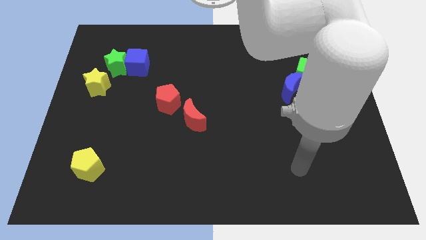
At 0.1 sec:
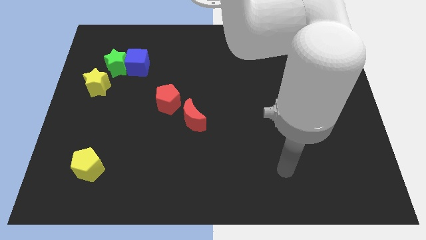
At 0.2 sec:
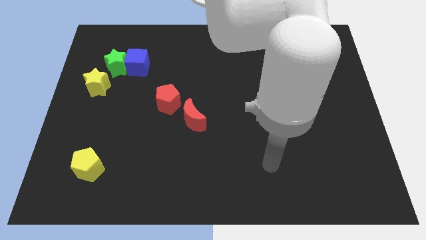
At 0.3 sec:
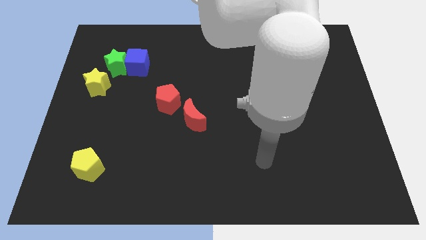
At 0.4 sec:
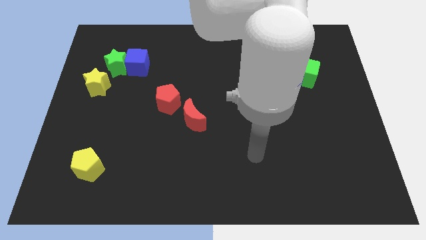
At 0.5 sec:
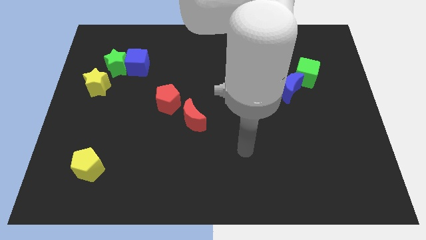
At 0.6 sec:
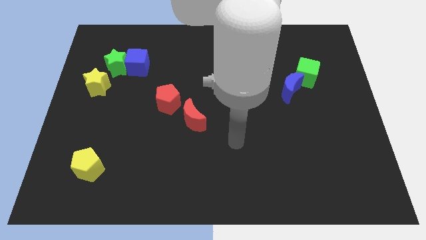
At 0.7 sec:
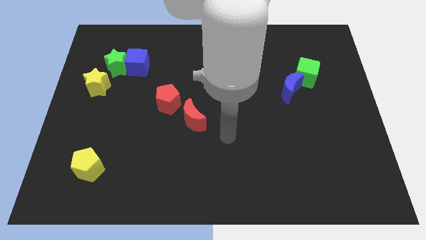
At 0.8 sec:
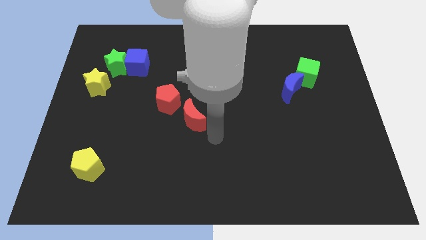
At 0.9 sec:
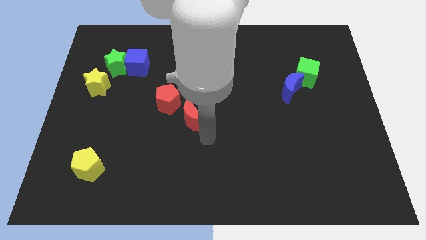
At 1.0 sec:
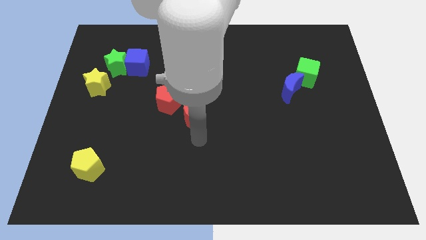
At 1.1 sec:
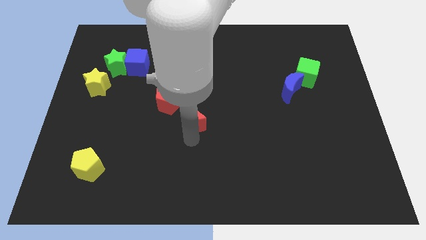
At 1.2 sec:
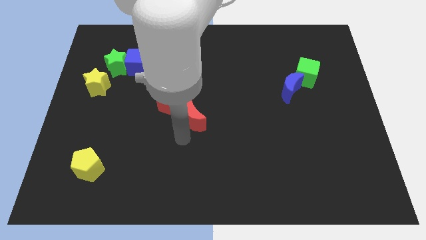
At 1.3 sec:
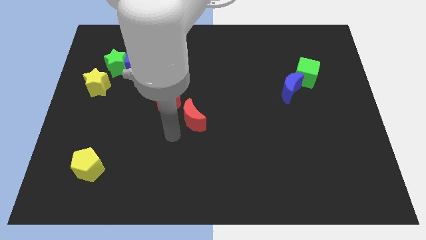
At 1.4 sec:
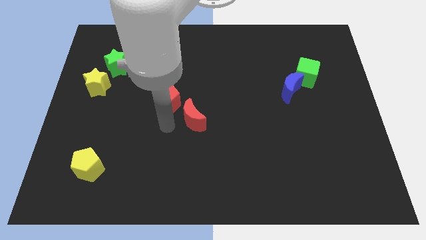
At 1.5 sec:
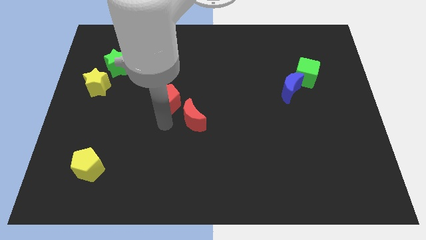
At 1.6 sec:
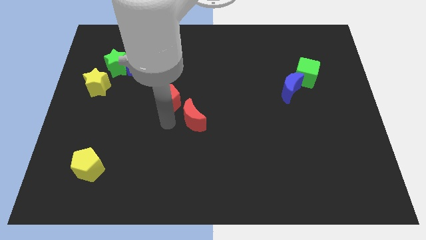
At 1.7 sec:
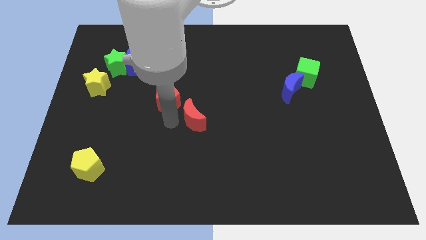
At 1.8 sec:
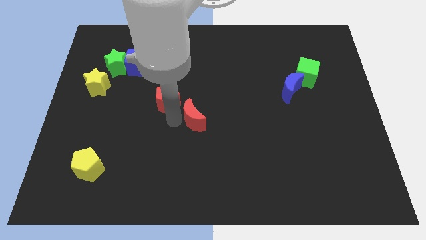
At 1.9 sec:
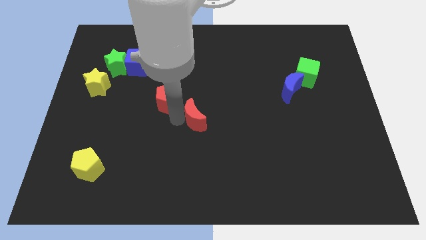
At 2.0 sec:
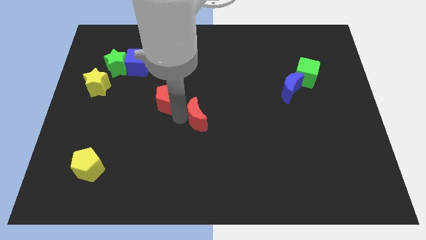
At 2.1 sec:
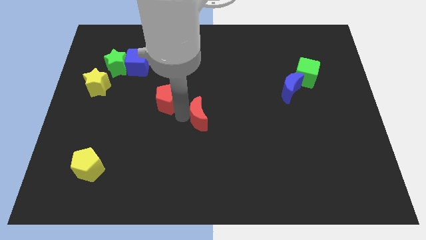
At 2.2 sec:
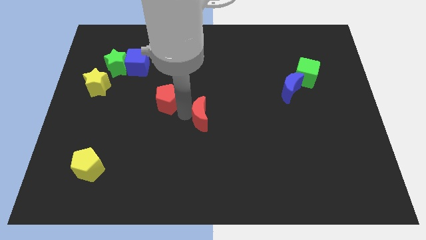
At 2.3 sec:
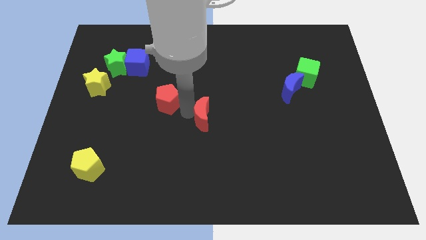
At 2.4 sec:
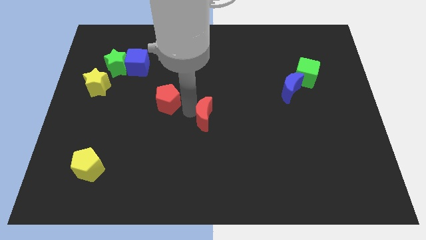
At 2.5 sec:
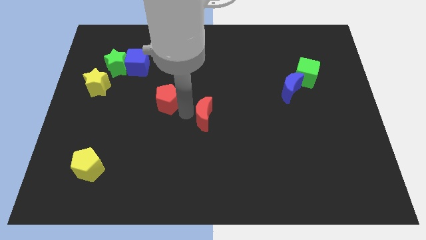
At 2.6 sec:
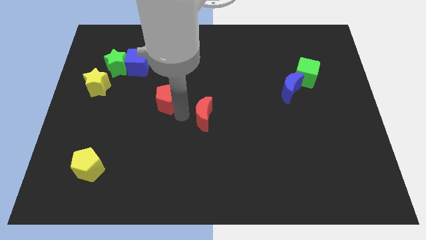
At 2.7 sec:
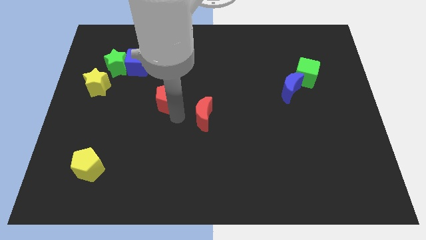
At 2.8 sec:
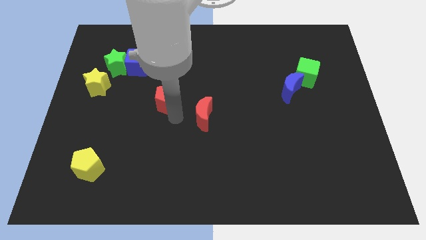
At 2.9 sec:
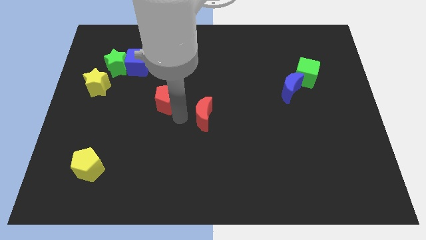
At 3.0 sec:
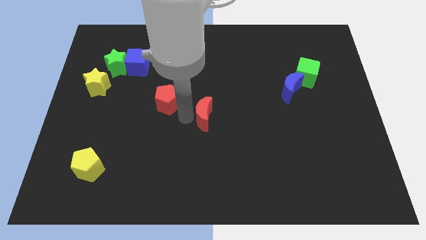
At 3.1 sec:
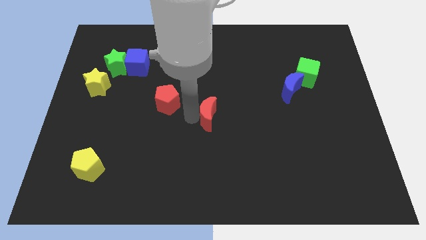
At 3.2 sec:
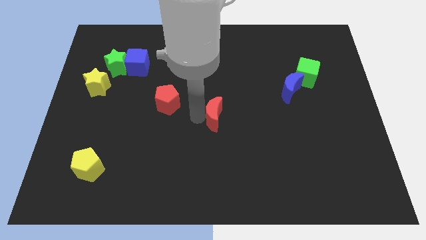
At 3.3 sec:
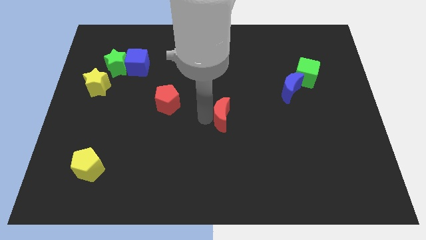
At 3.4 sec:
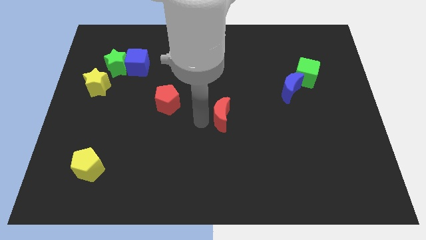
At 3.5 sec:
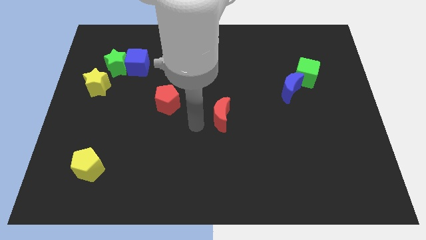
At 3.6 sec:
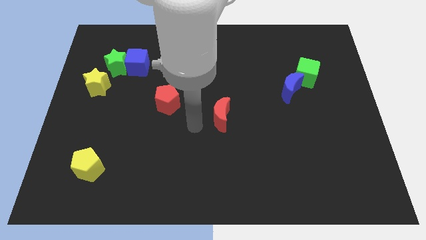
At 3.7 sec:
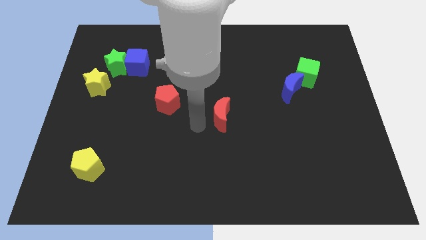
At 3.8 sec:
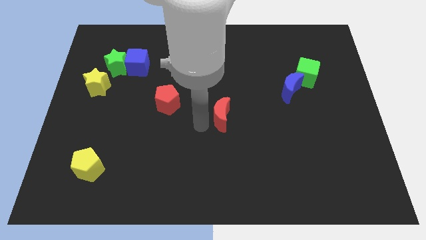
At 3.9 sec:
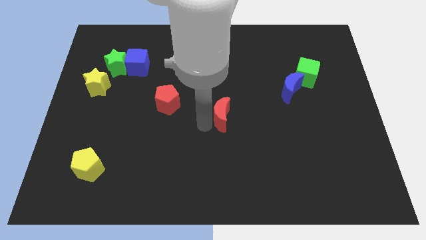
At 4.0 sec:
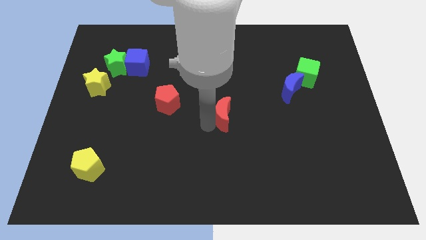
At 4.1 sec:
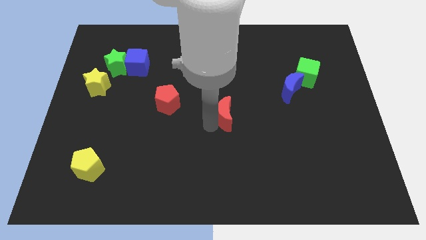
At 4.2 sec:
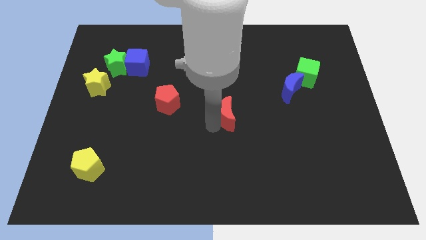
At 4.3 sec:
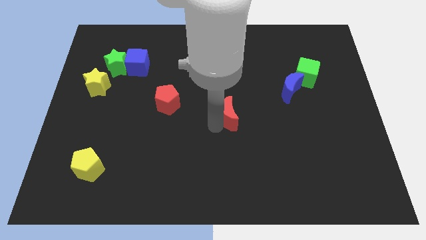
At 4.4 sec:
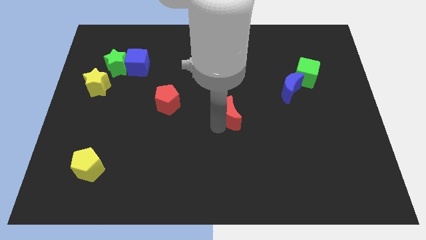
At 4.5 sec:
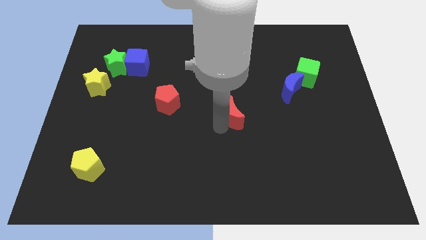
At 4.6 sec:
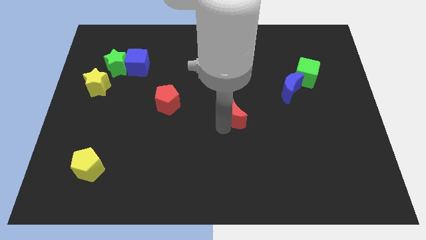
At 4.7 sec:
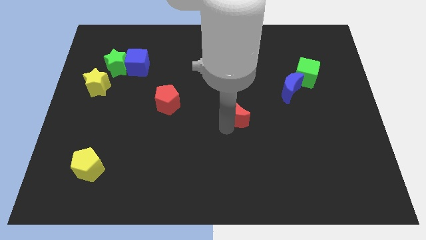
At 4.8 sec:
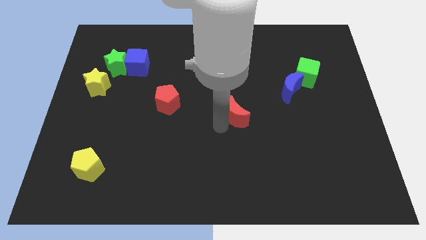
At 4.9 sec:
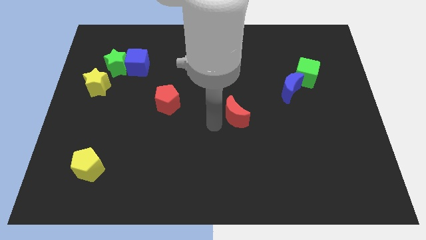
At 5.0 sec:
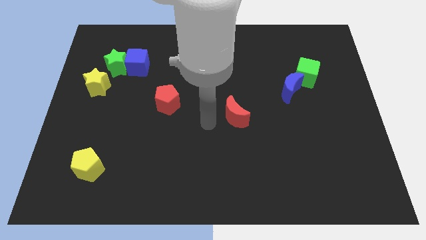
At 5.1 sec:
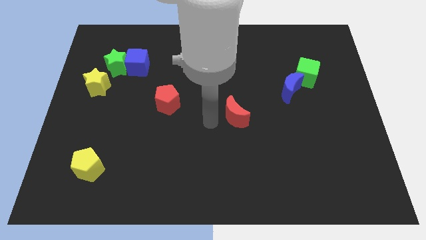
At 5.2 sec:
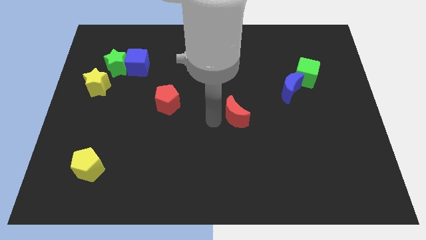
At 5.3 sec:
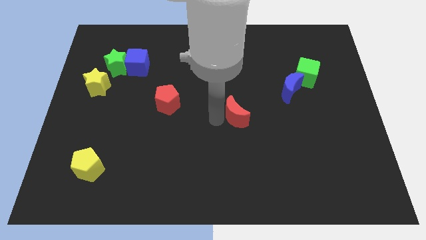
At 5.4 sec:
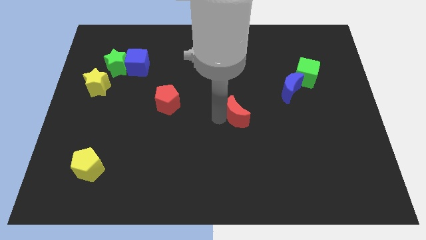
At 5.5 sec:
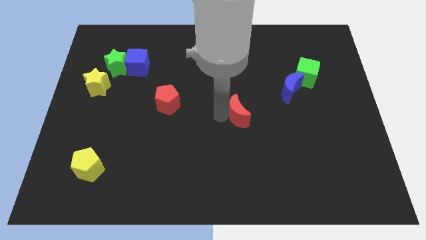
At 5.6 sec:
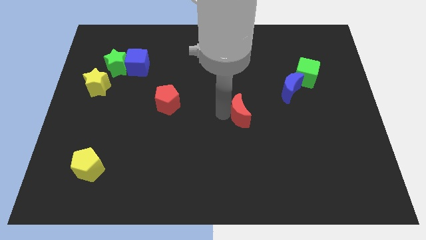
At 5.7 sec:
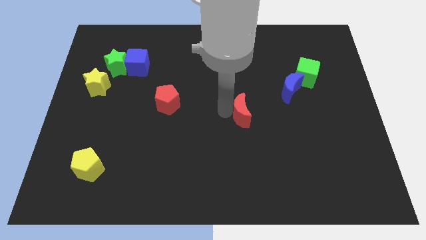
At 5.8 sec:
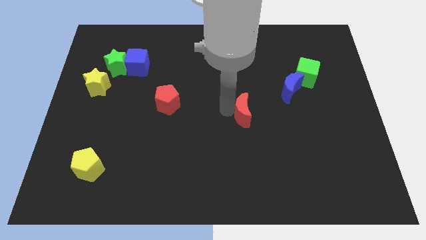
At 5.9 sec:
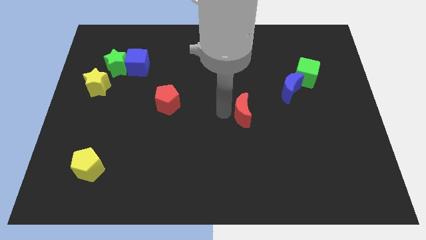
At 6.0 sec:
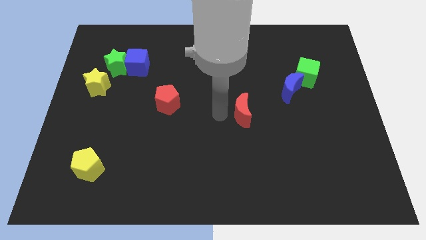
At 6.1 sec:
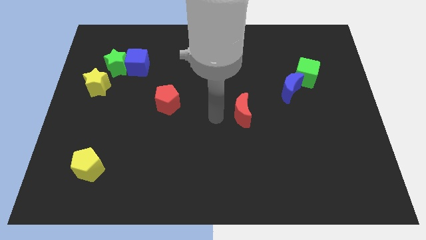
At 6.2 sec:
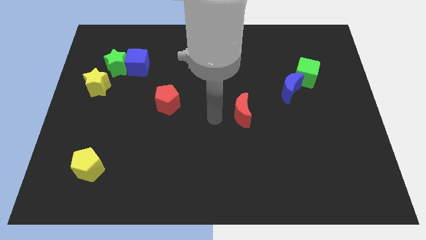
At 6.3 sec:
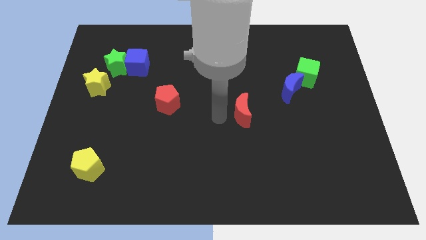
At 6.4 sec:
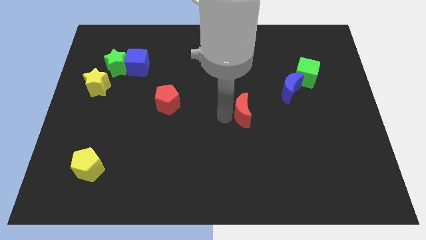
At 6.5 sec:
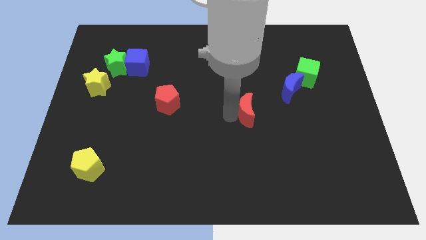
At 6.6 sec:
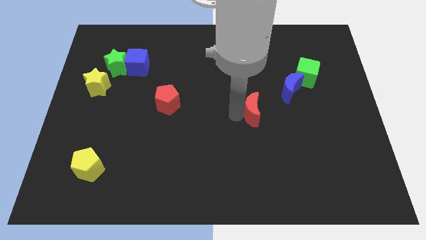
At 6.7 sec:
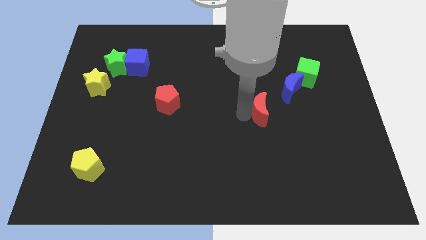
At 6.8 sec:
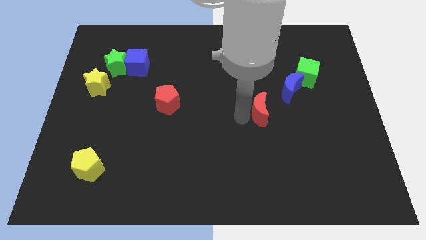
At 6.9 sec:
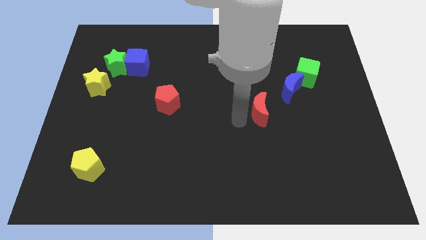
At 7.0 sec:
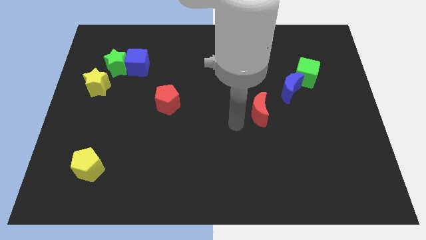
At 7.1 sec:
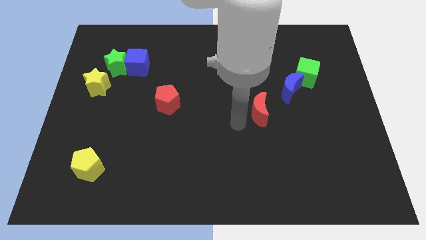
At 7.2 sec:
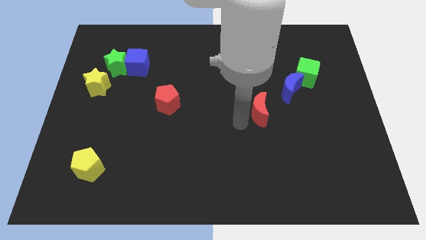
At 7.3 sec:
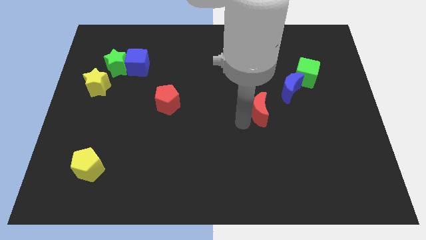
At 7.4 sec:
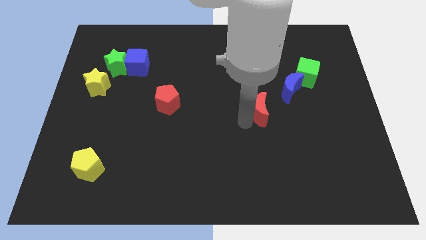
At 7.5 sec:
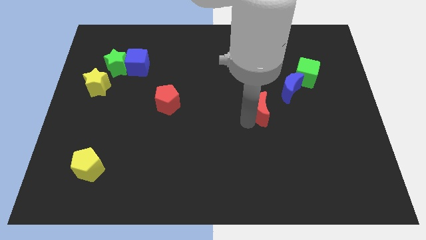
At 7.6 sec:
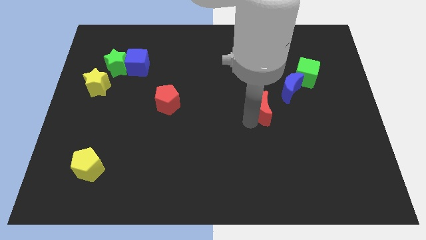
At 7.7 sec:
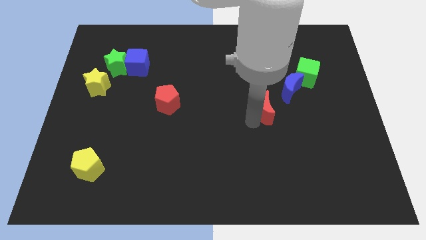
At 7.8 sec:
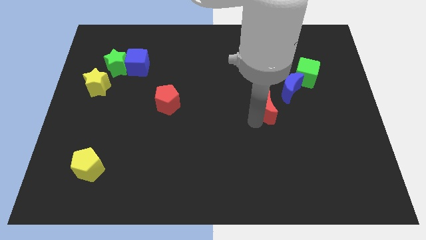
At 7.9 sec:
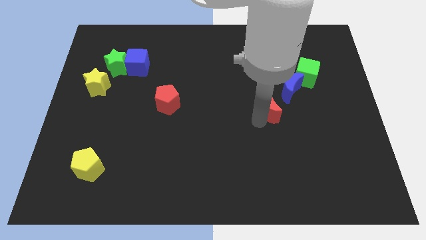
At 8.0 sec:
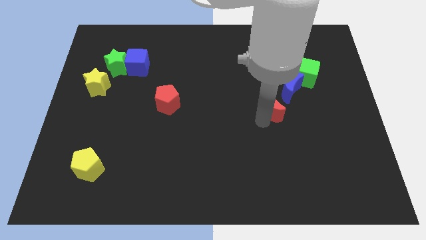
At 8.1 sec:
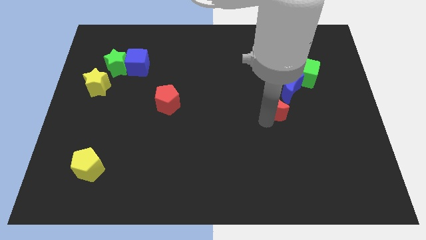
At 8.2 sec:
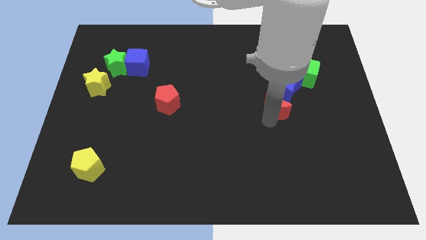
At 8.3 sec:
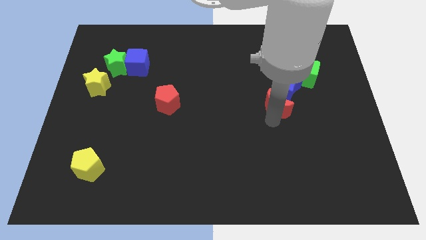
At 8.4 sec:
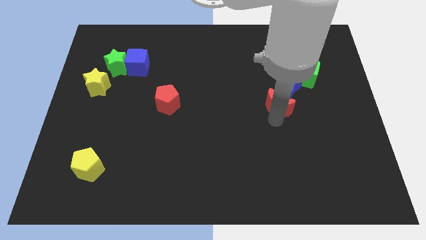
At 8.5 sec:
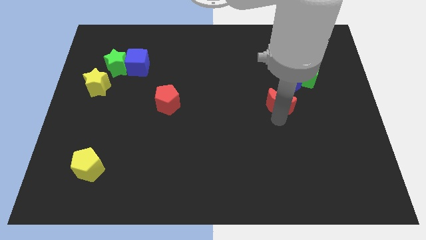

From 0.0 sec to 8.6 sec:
slide the red moon towards the blue moon
